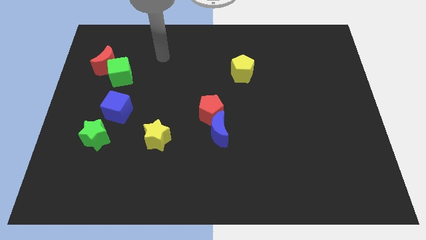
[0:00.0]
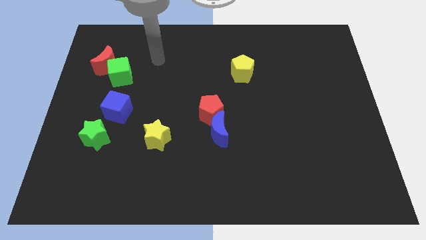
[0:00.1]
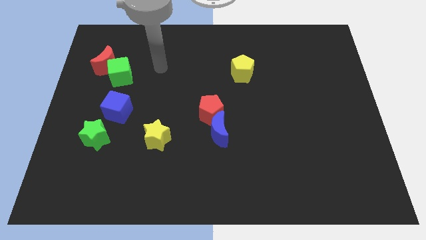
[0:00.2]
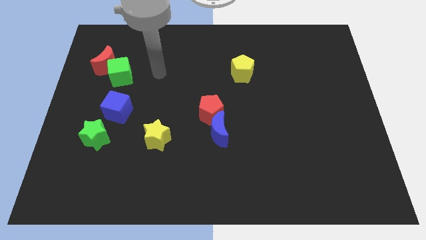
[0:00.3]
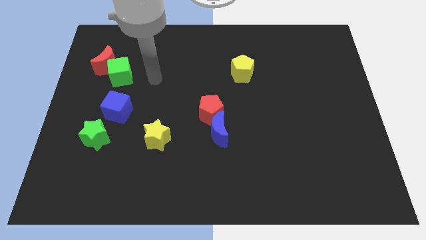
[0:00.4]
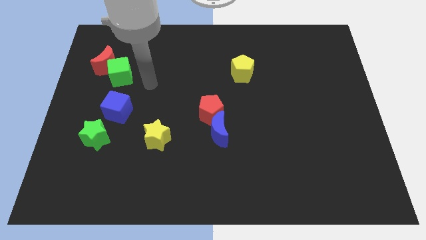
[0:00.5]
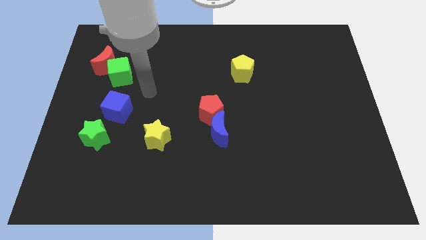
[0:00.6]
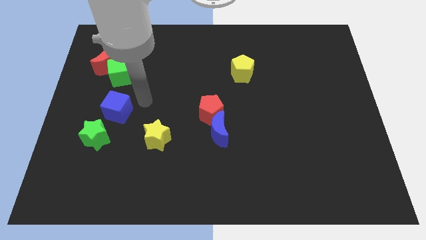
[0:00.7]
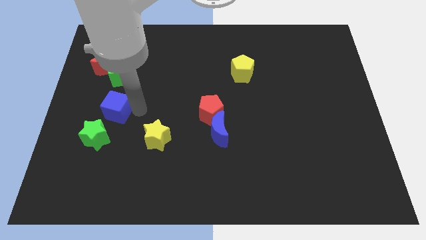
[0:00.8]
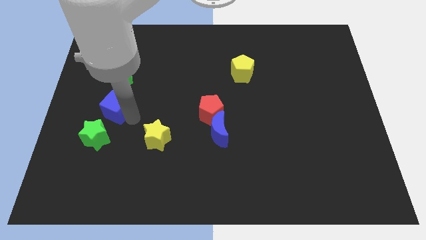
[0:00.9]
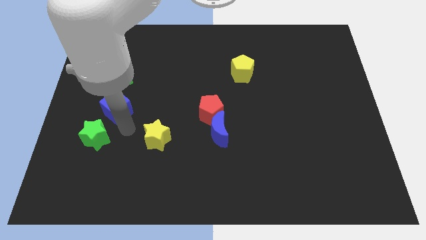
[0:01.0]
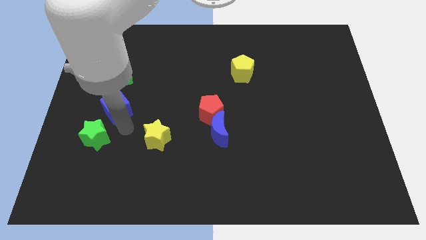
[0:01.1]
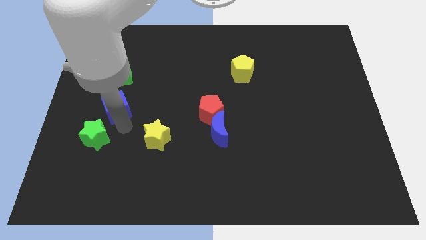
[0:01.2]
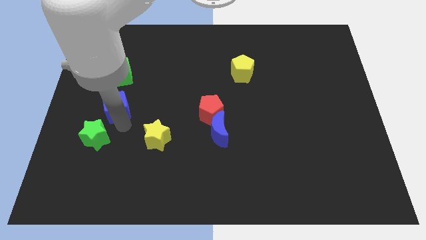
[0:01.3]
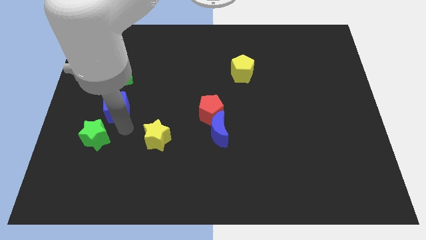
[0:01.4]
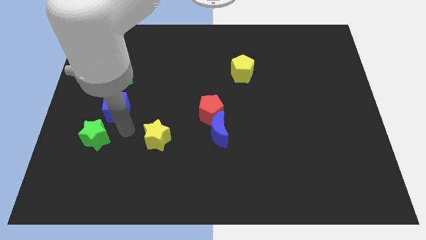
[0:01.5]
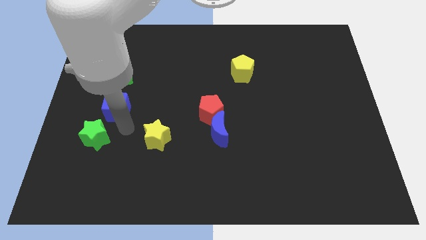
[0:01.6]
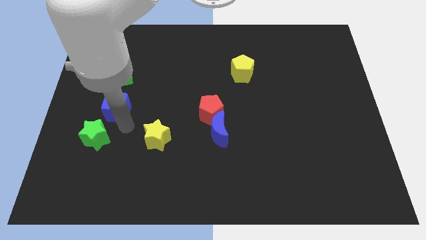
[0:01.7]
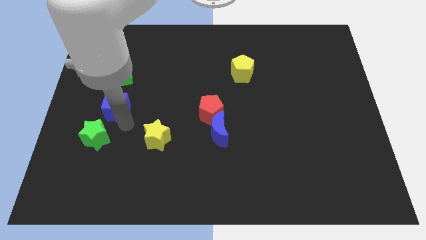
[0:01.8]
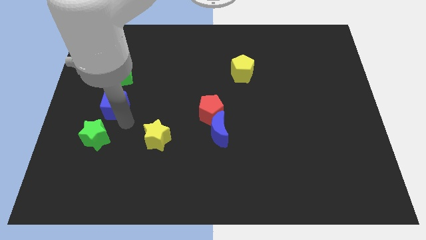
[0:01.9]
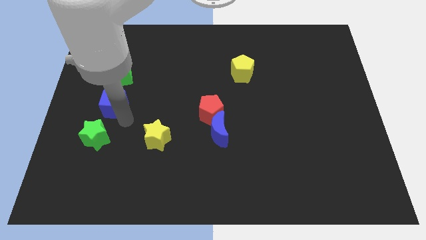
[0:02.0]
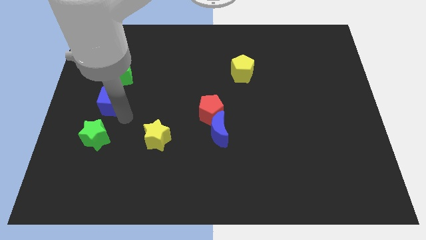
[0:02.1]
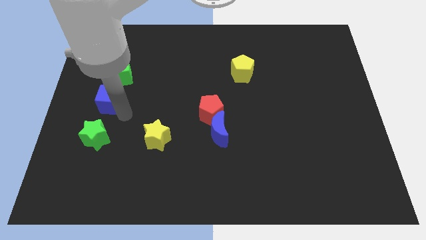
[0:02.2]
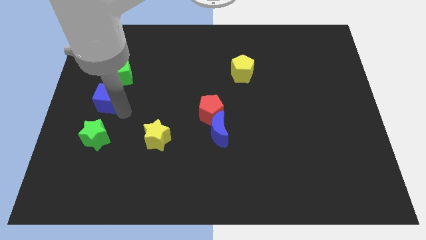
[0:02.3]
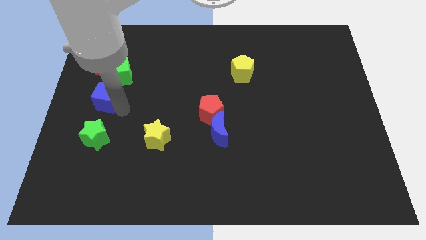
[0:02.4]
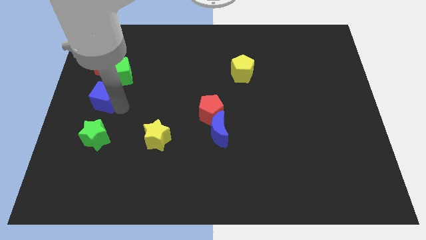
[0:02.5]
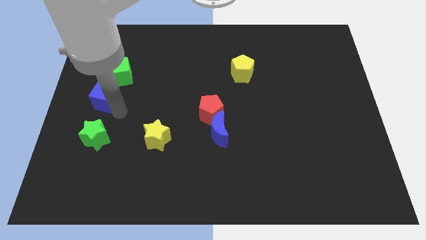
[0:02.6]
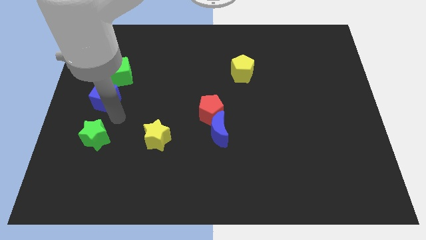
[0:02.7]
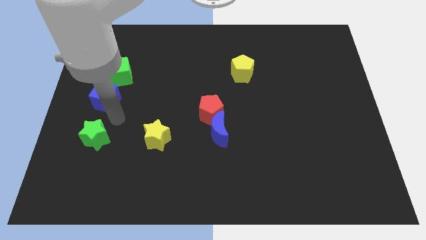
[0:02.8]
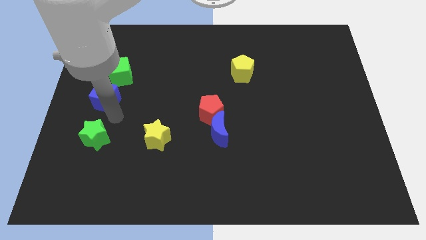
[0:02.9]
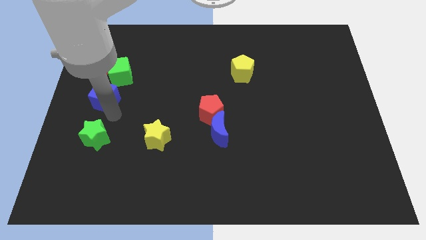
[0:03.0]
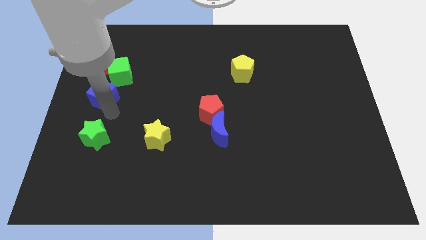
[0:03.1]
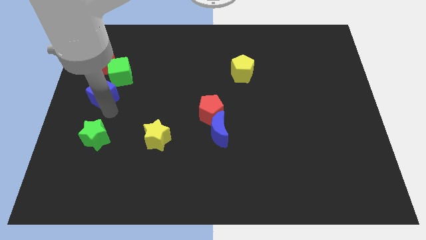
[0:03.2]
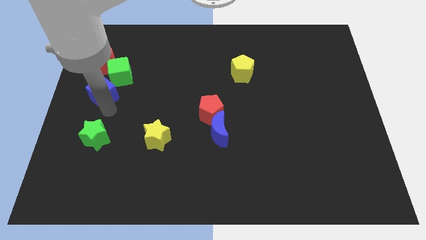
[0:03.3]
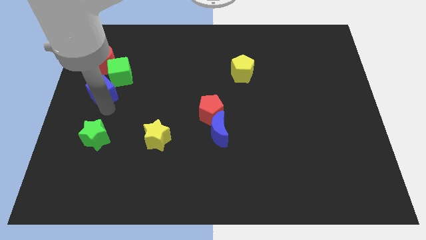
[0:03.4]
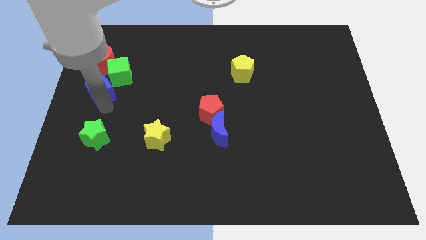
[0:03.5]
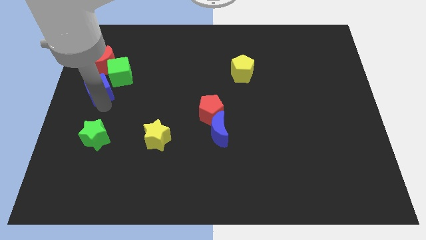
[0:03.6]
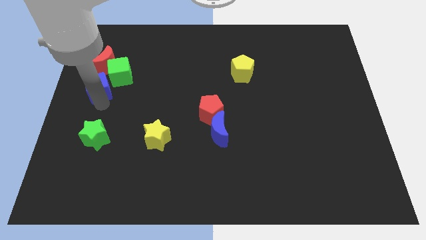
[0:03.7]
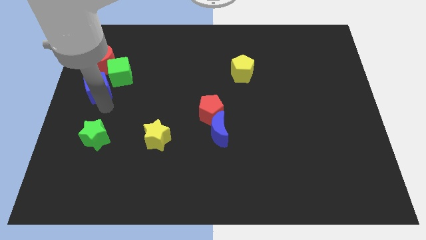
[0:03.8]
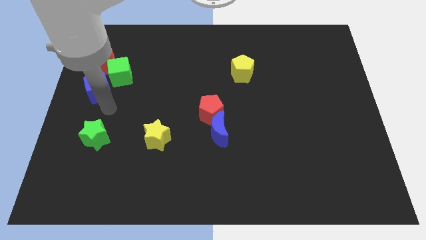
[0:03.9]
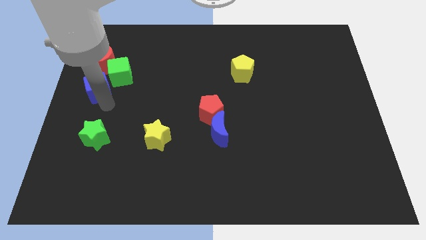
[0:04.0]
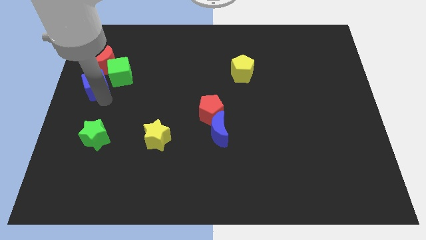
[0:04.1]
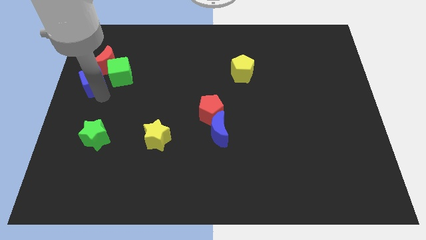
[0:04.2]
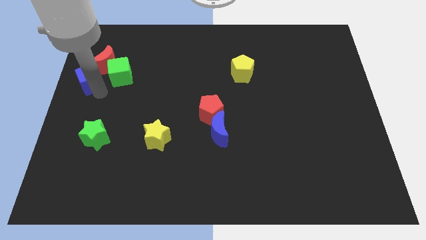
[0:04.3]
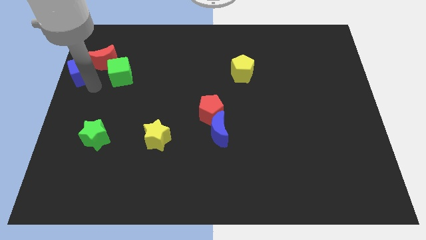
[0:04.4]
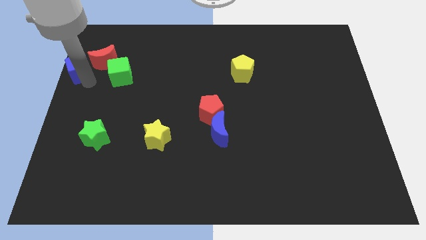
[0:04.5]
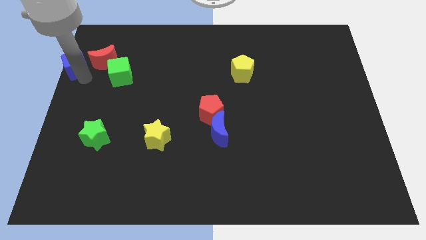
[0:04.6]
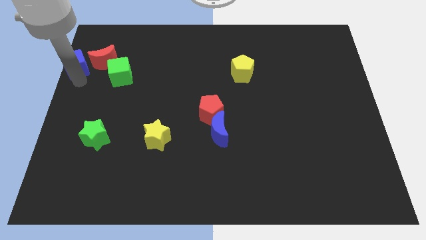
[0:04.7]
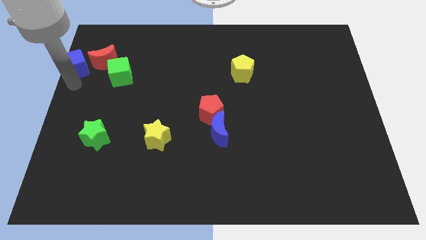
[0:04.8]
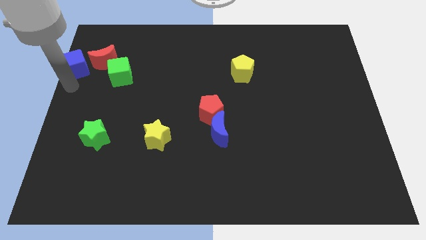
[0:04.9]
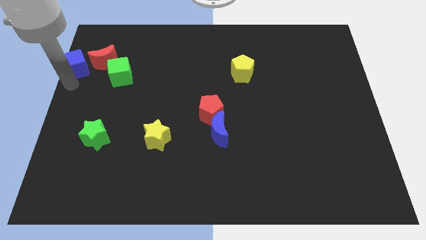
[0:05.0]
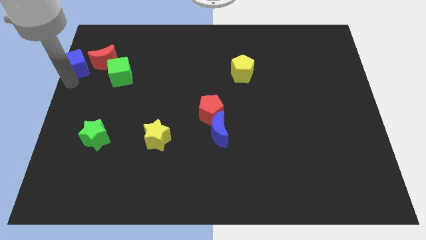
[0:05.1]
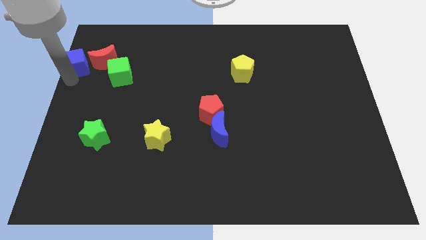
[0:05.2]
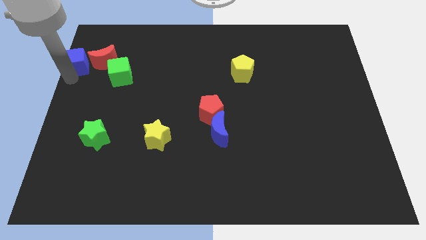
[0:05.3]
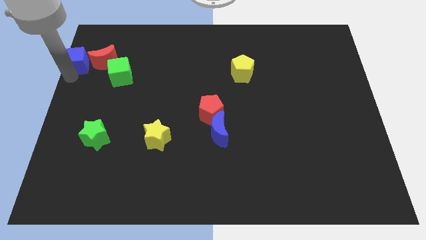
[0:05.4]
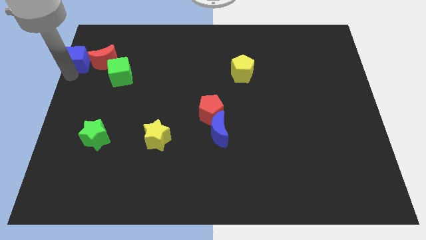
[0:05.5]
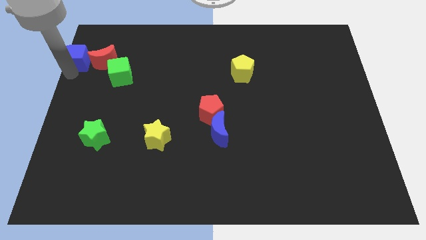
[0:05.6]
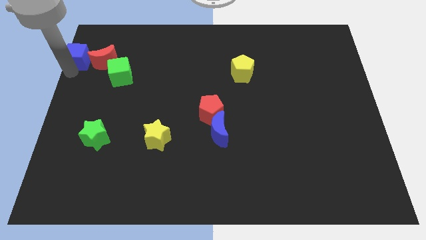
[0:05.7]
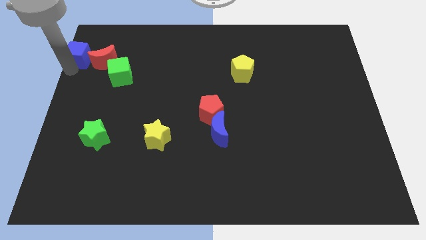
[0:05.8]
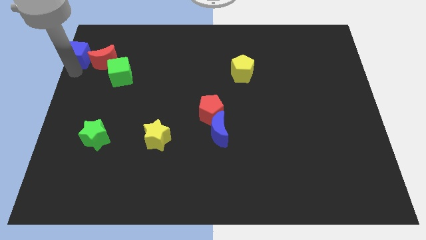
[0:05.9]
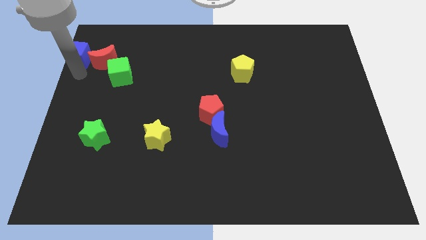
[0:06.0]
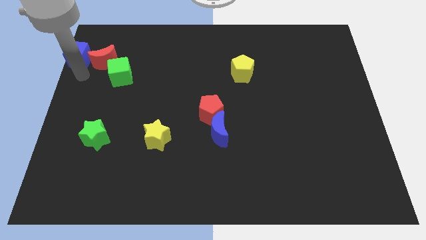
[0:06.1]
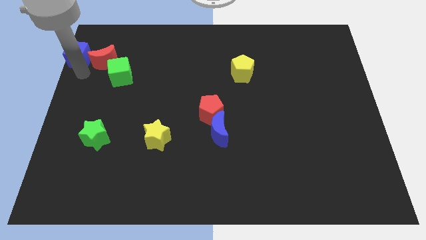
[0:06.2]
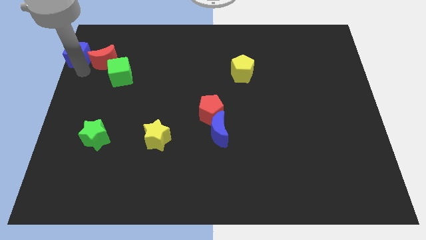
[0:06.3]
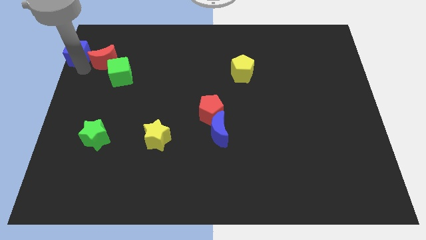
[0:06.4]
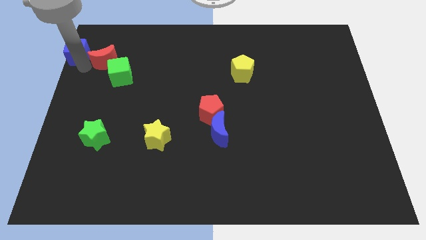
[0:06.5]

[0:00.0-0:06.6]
move the blue cube to the top left of the board

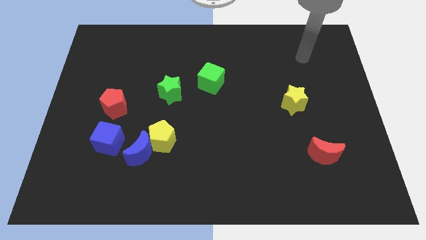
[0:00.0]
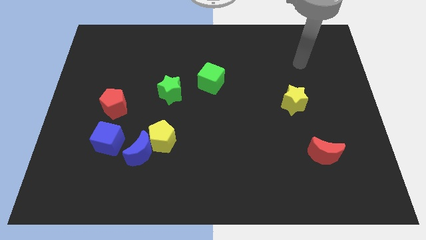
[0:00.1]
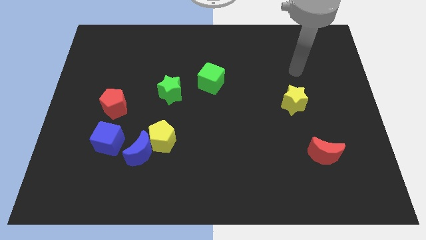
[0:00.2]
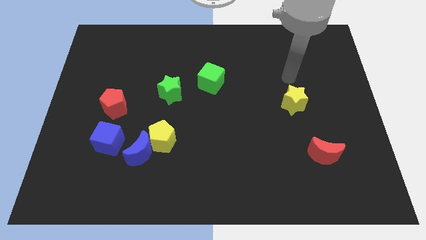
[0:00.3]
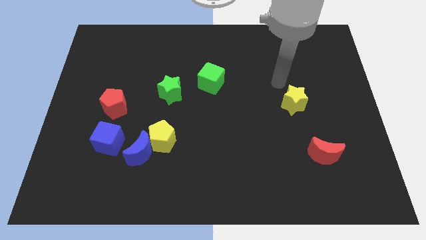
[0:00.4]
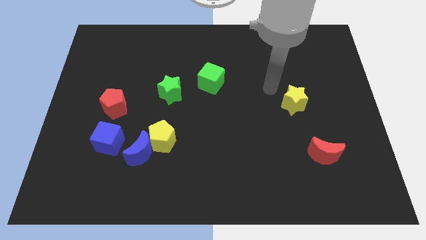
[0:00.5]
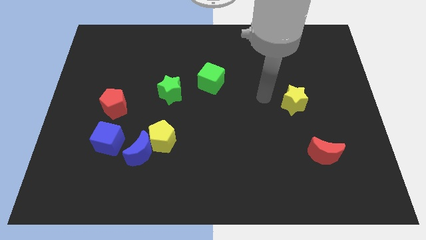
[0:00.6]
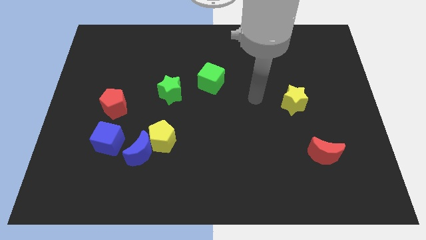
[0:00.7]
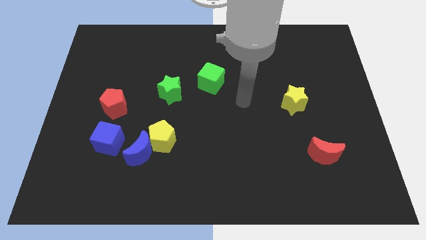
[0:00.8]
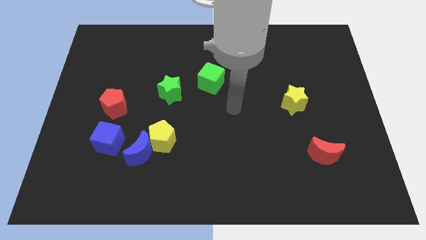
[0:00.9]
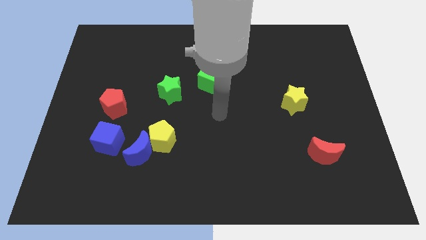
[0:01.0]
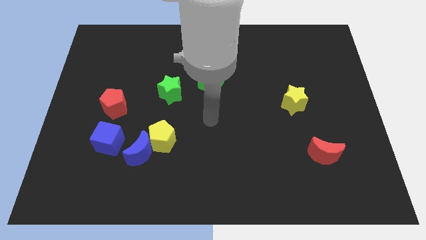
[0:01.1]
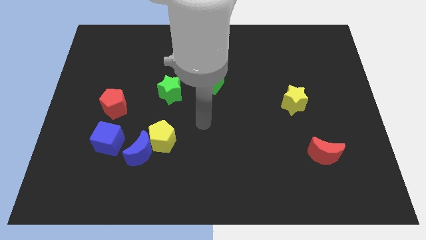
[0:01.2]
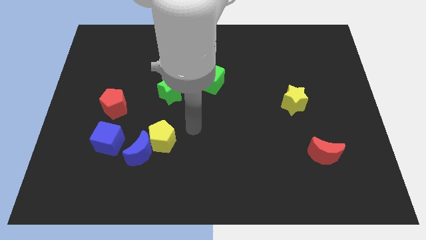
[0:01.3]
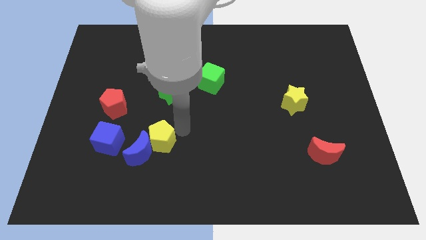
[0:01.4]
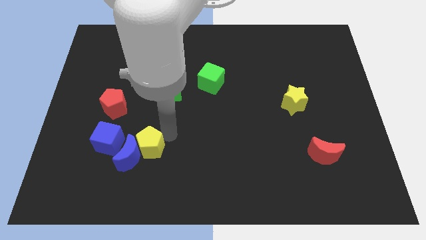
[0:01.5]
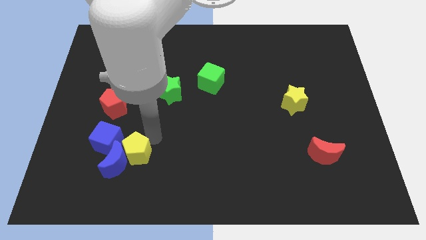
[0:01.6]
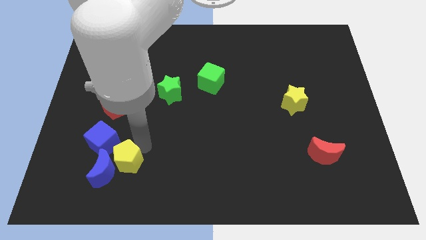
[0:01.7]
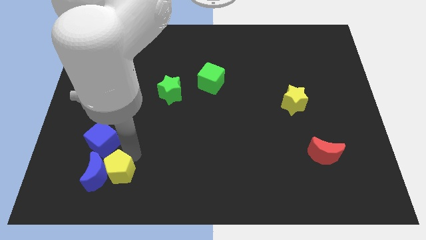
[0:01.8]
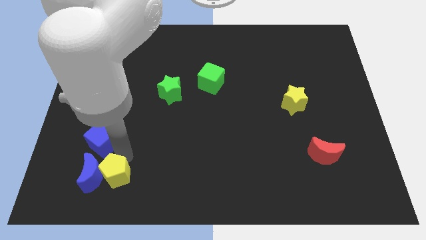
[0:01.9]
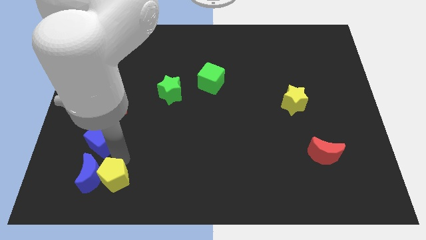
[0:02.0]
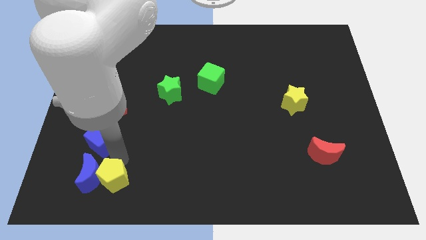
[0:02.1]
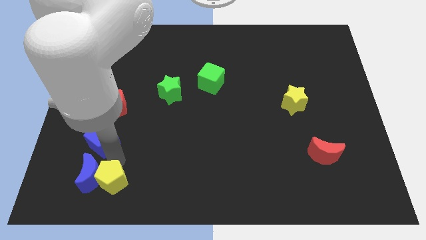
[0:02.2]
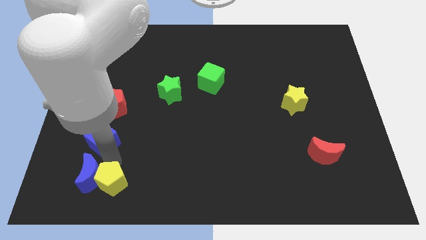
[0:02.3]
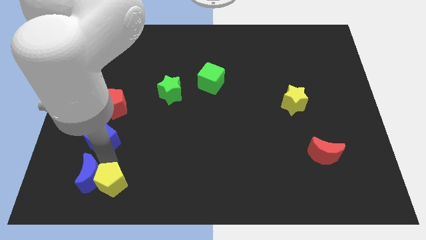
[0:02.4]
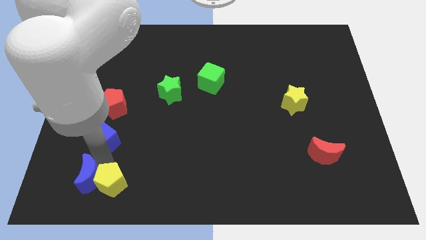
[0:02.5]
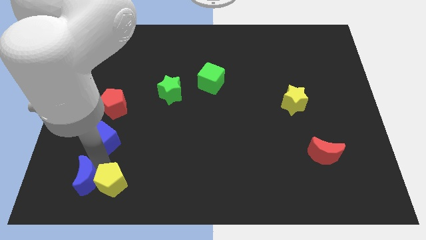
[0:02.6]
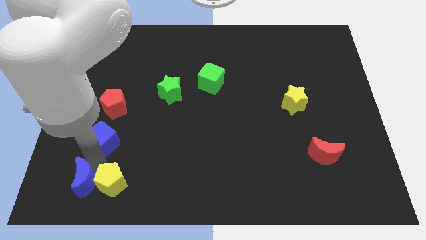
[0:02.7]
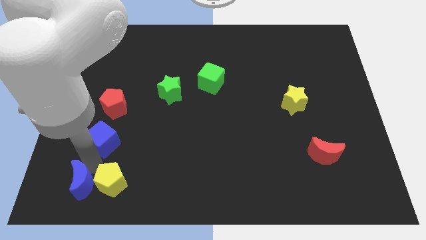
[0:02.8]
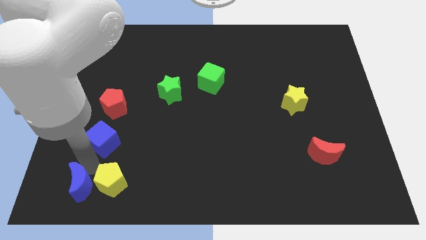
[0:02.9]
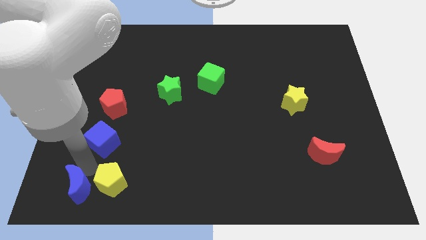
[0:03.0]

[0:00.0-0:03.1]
put the blue moon to the bottom left of the board
